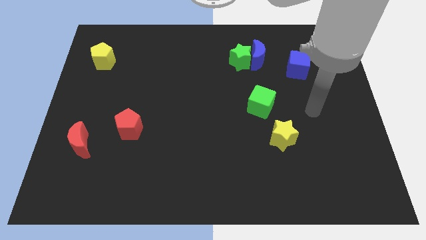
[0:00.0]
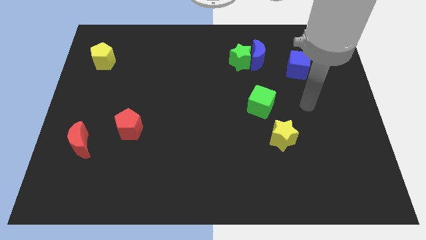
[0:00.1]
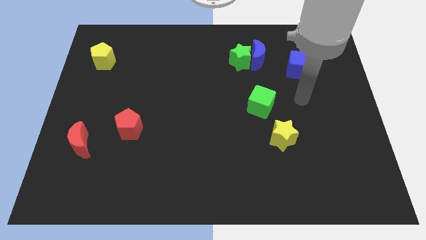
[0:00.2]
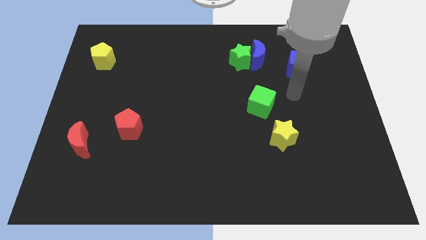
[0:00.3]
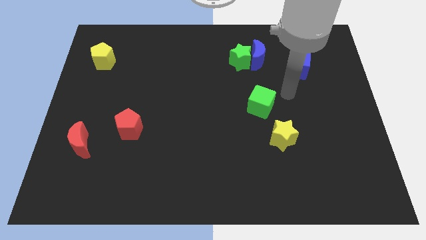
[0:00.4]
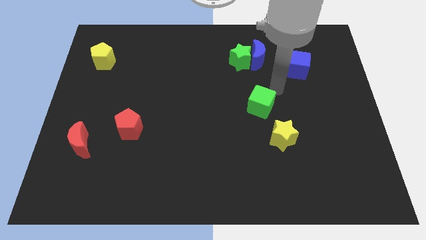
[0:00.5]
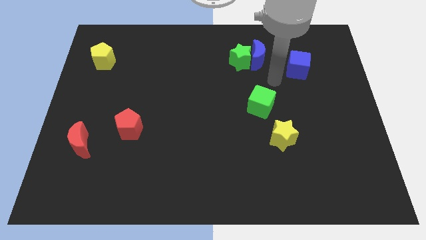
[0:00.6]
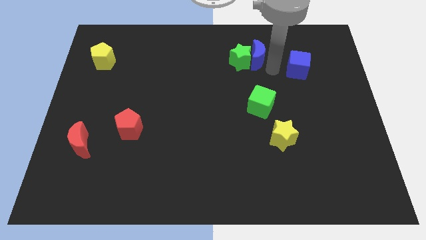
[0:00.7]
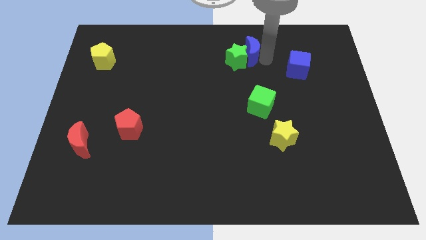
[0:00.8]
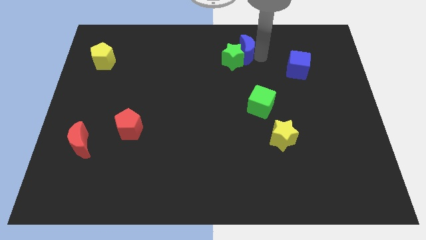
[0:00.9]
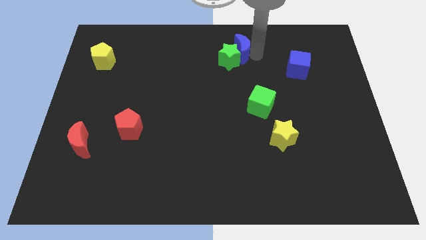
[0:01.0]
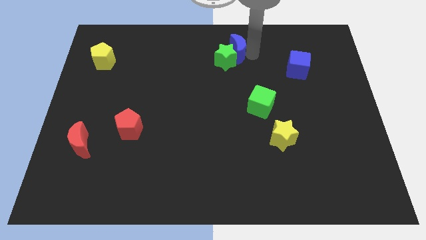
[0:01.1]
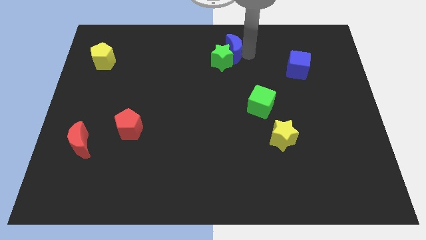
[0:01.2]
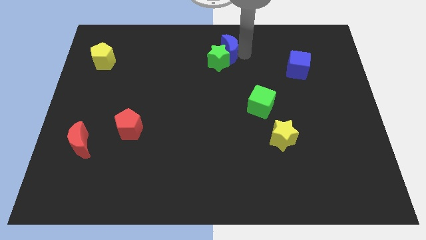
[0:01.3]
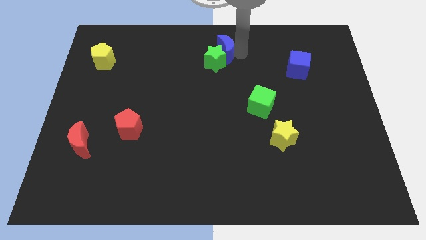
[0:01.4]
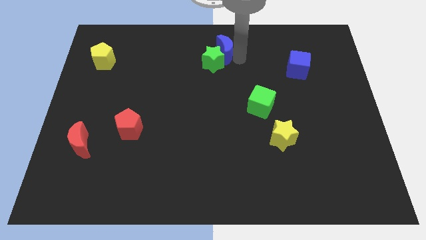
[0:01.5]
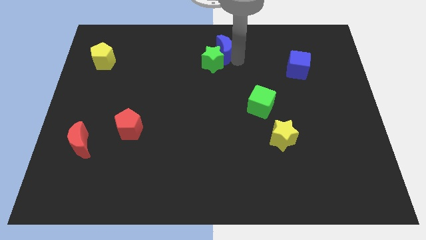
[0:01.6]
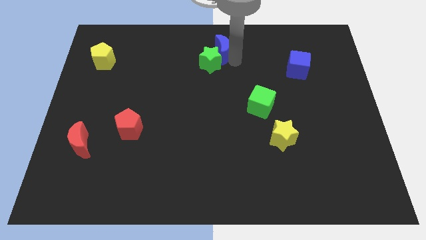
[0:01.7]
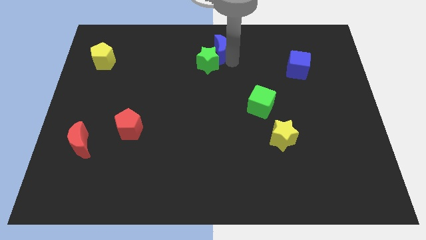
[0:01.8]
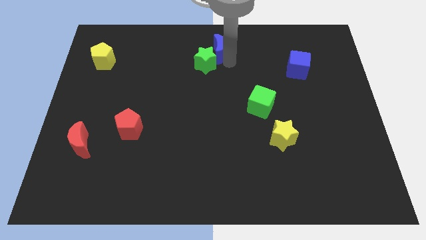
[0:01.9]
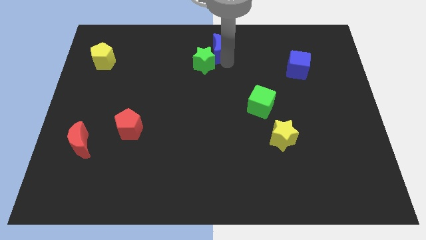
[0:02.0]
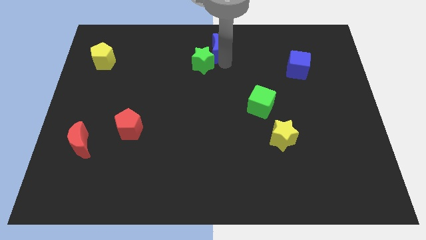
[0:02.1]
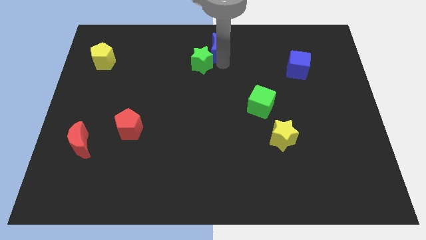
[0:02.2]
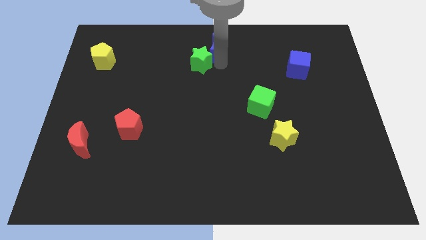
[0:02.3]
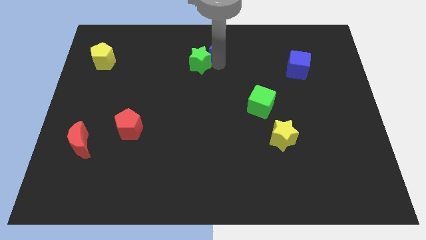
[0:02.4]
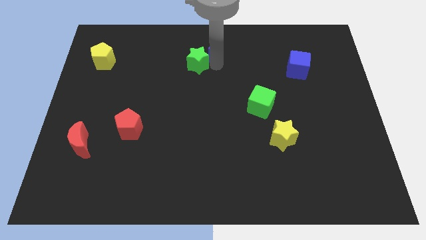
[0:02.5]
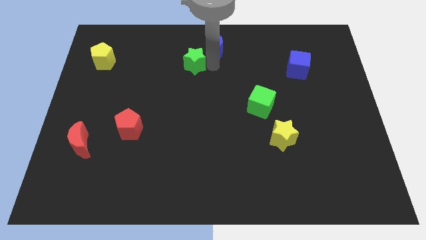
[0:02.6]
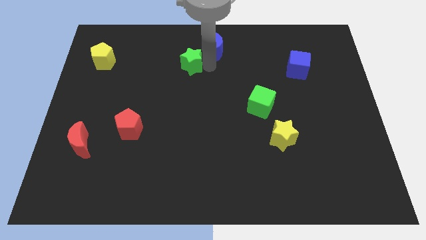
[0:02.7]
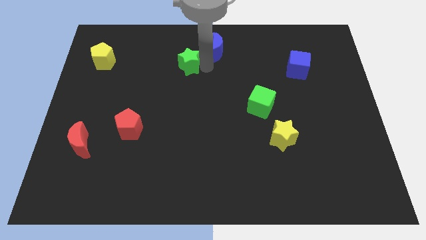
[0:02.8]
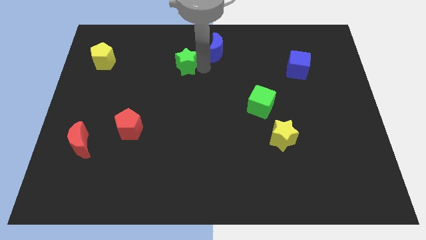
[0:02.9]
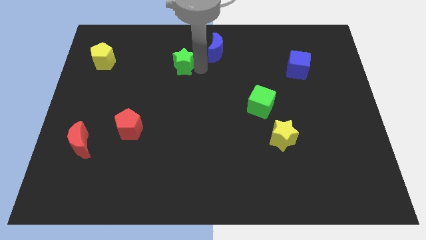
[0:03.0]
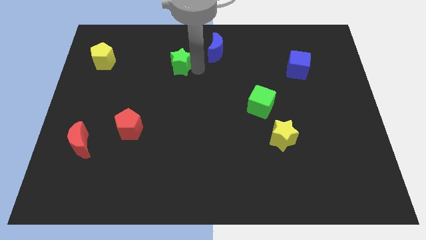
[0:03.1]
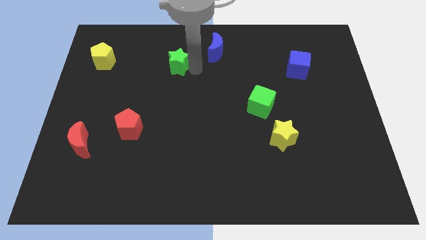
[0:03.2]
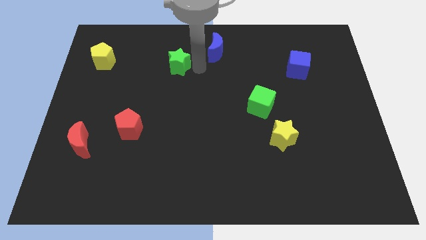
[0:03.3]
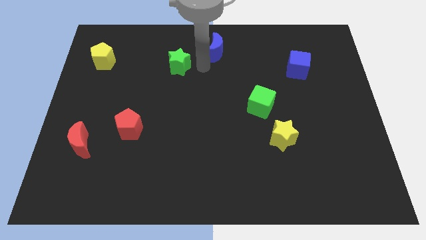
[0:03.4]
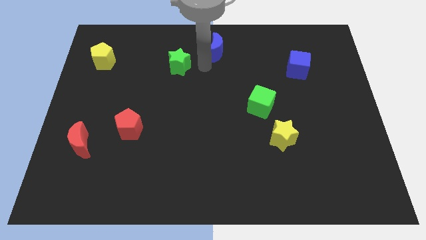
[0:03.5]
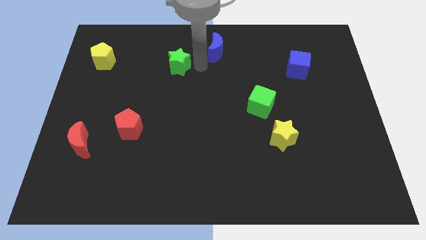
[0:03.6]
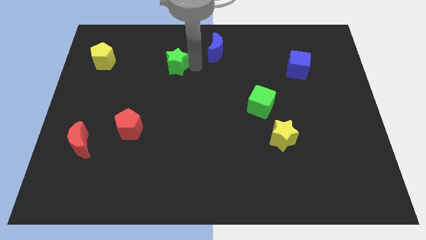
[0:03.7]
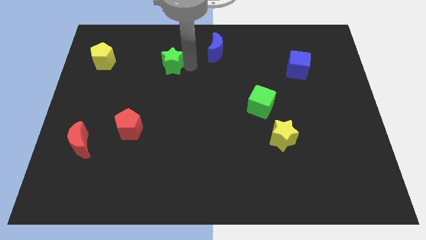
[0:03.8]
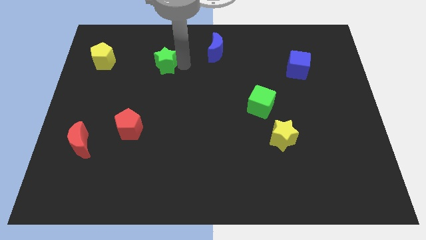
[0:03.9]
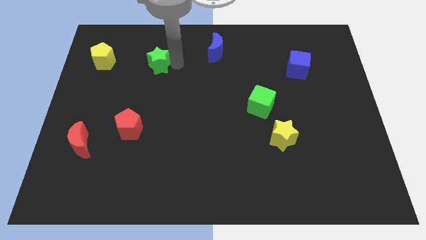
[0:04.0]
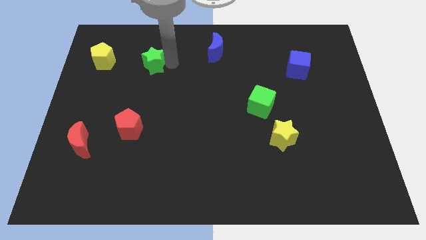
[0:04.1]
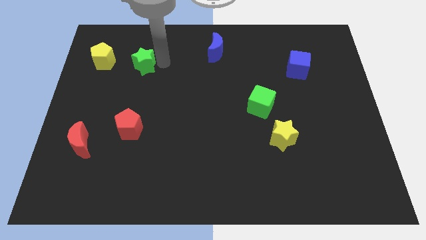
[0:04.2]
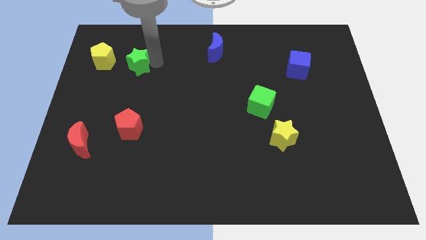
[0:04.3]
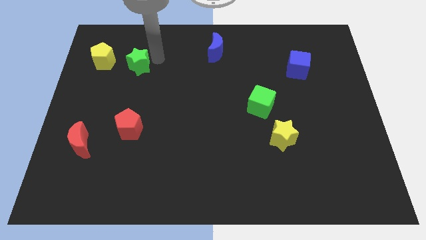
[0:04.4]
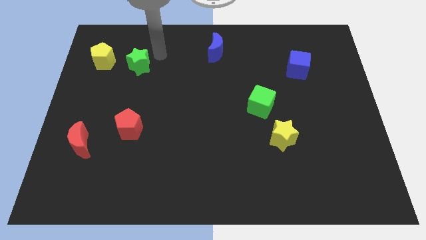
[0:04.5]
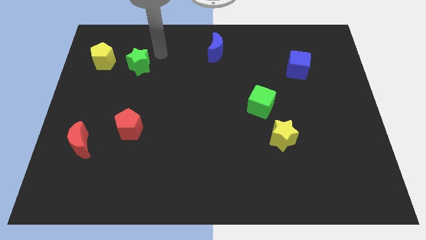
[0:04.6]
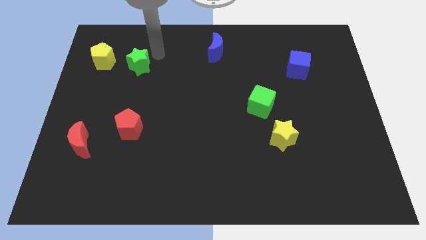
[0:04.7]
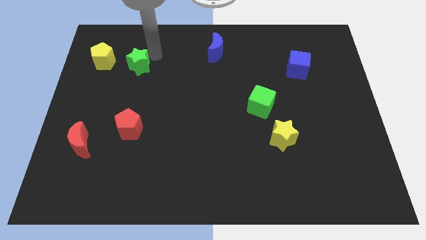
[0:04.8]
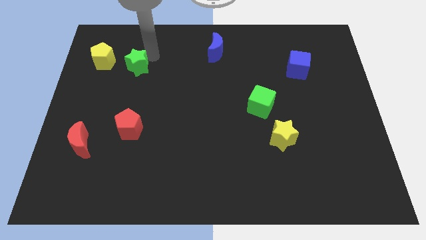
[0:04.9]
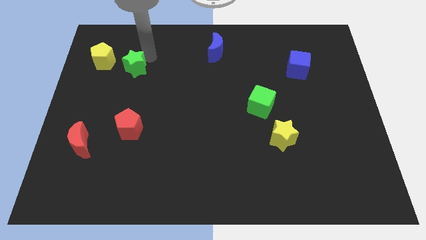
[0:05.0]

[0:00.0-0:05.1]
put the green star to the bottom right of the yellow pentagon

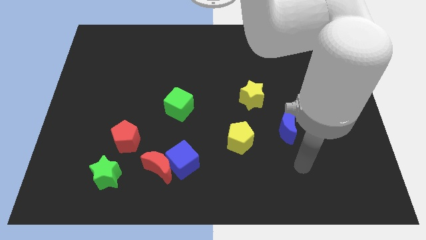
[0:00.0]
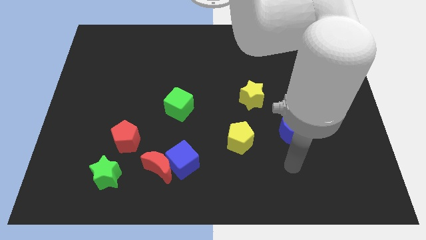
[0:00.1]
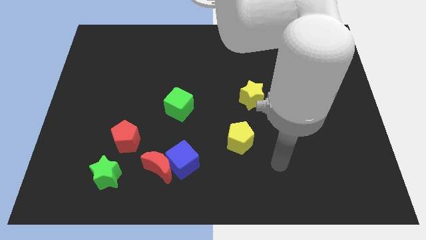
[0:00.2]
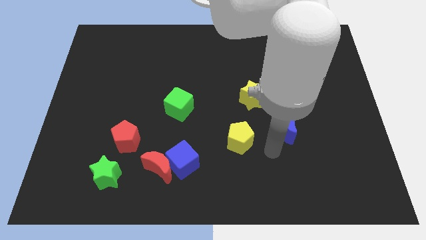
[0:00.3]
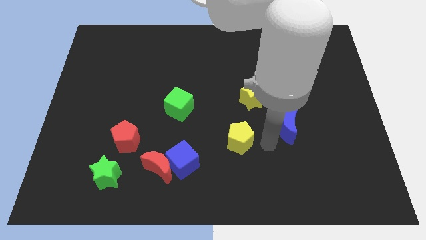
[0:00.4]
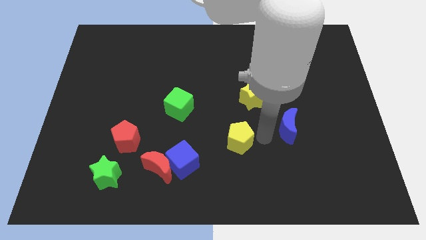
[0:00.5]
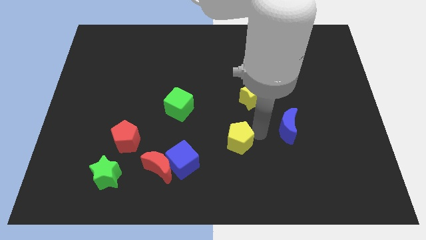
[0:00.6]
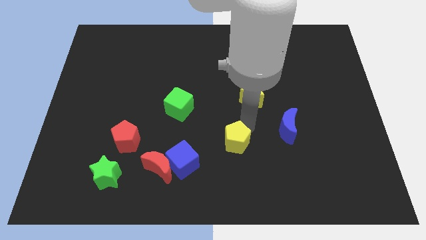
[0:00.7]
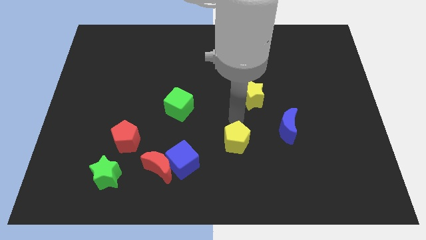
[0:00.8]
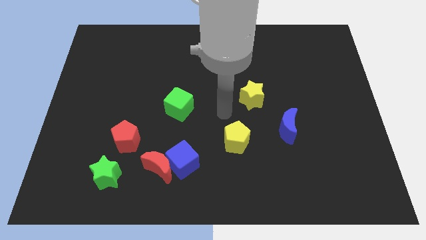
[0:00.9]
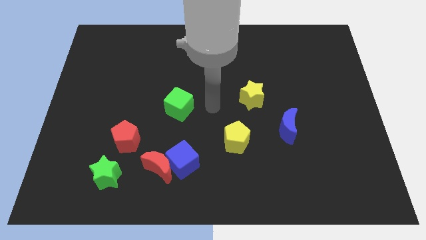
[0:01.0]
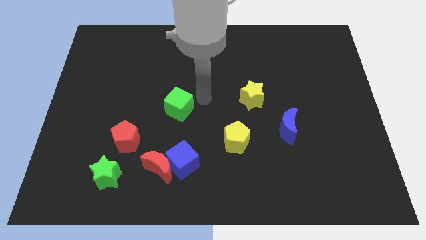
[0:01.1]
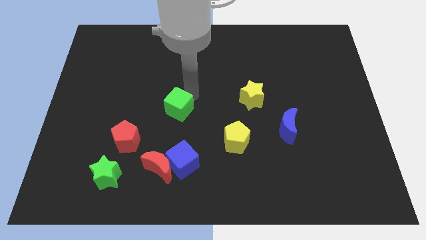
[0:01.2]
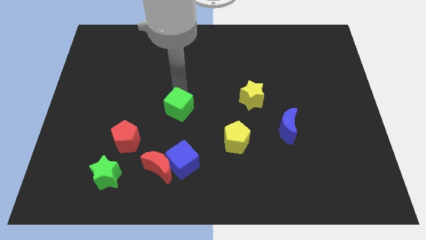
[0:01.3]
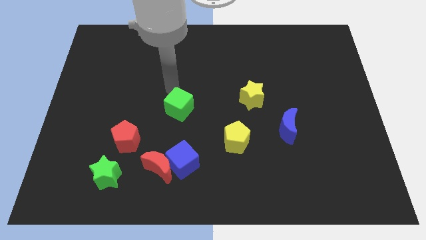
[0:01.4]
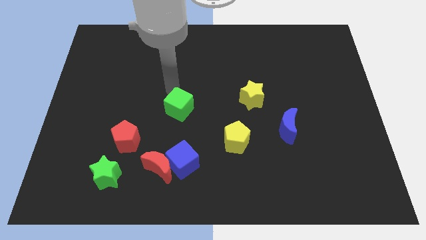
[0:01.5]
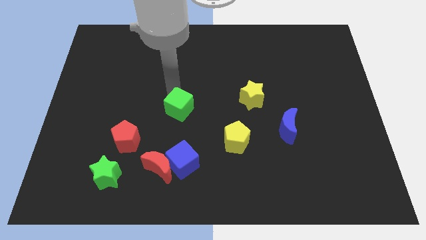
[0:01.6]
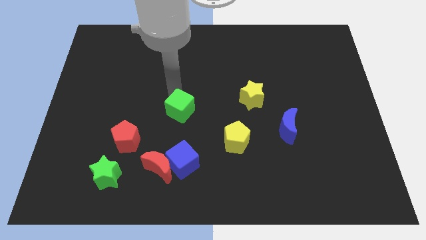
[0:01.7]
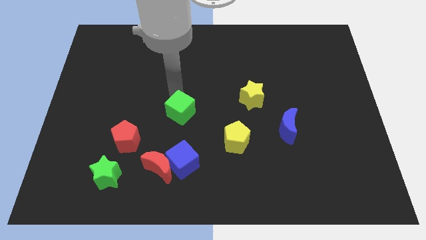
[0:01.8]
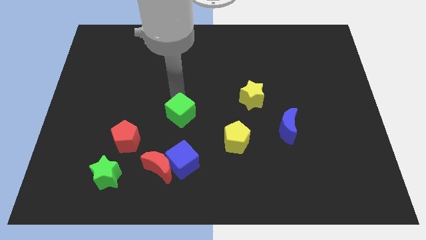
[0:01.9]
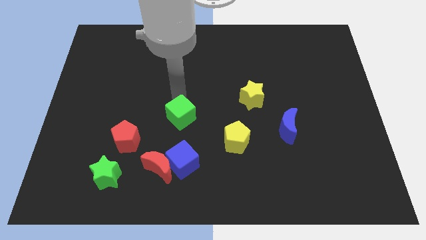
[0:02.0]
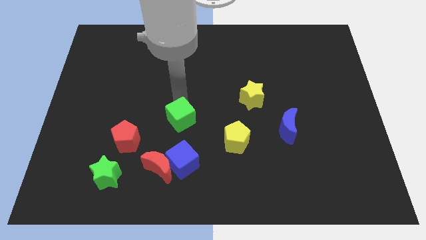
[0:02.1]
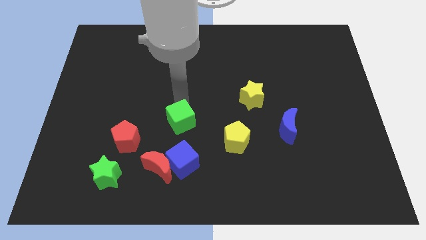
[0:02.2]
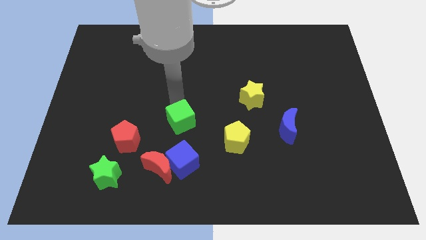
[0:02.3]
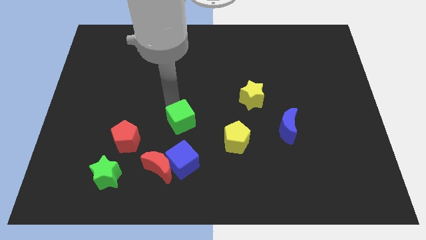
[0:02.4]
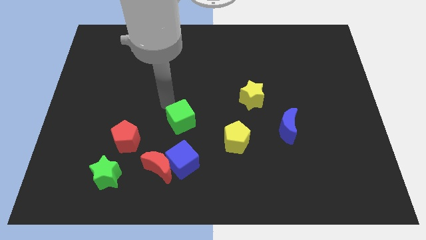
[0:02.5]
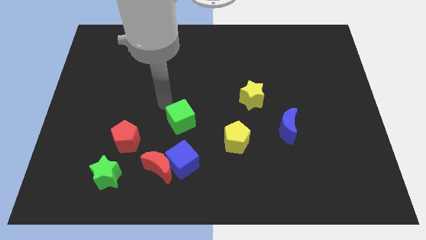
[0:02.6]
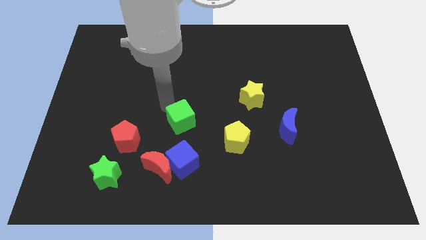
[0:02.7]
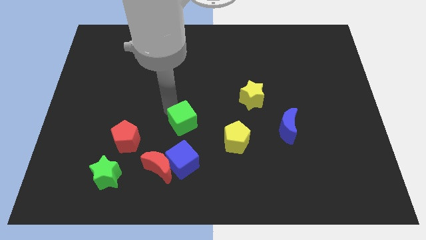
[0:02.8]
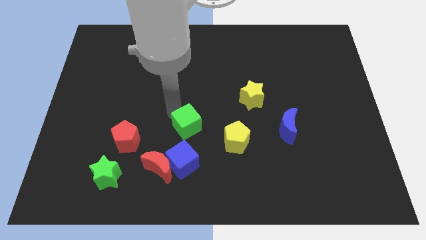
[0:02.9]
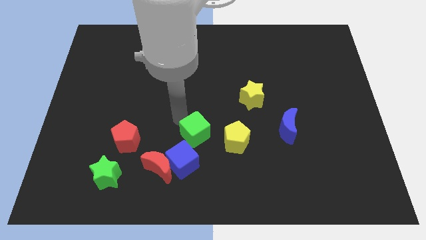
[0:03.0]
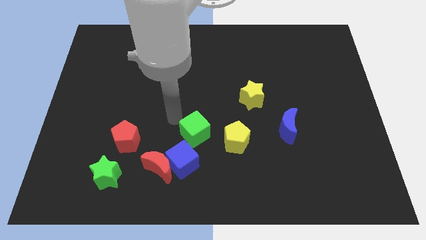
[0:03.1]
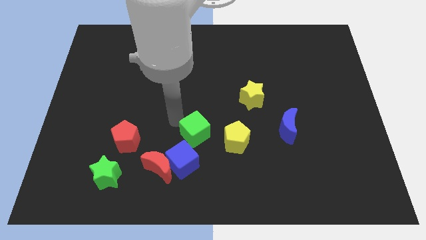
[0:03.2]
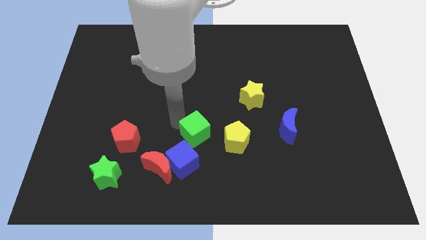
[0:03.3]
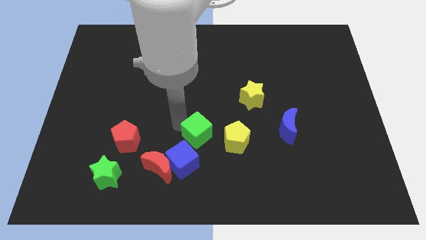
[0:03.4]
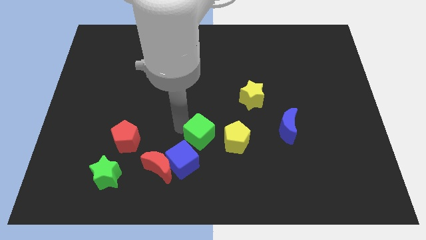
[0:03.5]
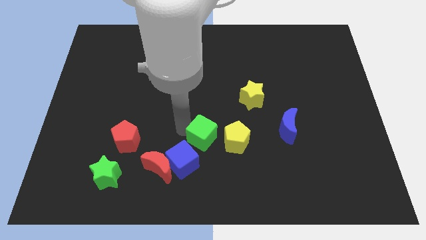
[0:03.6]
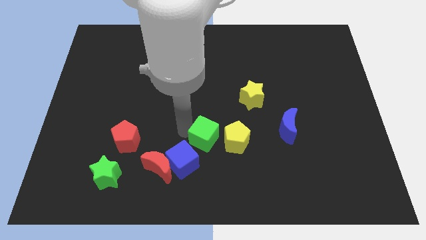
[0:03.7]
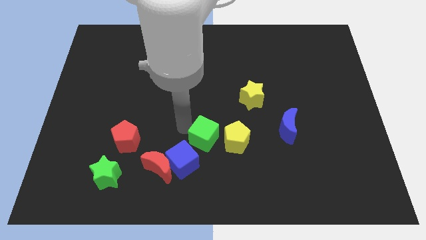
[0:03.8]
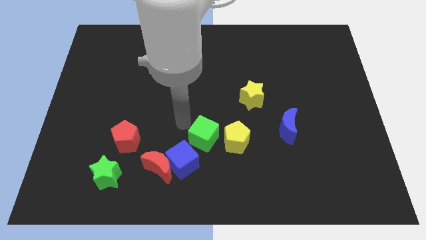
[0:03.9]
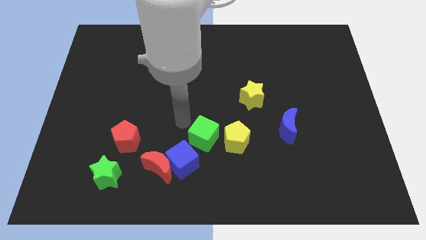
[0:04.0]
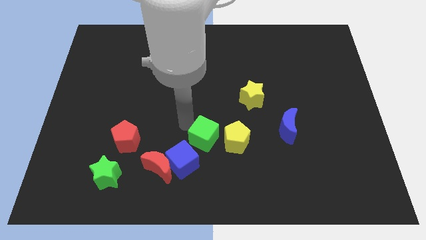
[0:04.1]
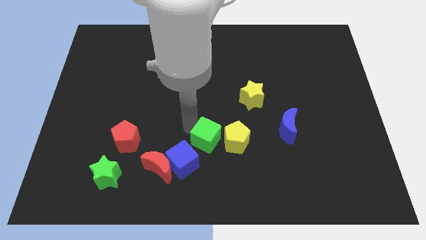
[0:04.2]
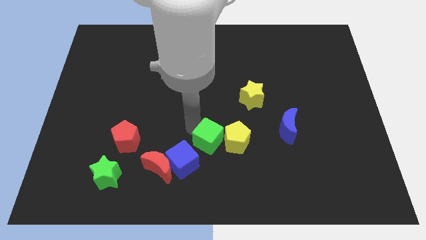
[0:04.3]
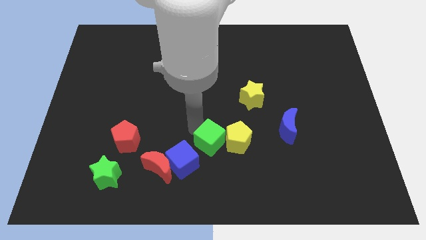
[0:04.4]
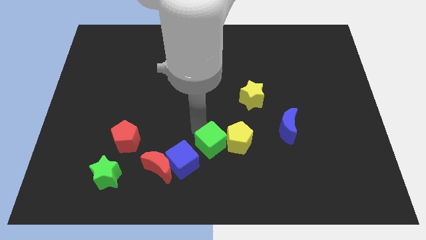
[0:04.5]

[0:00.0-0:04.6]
move the green cube right of the blue cube
